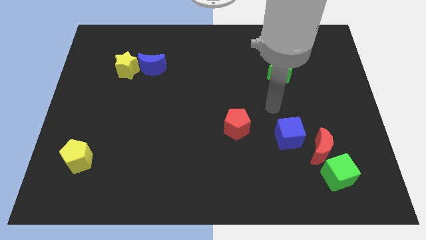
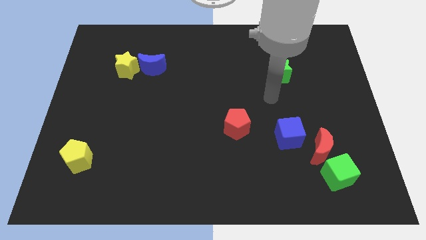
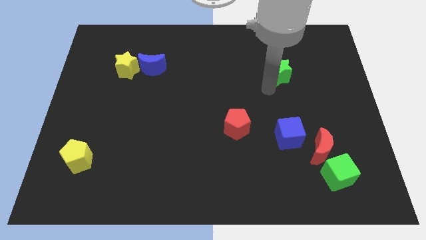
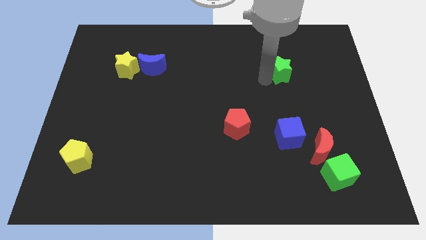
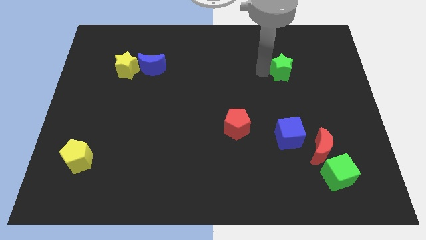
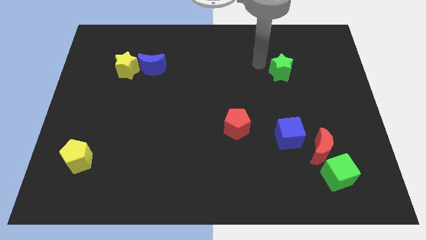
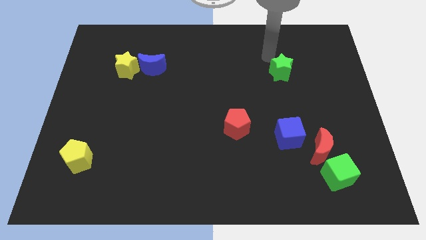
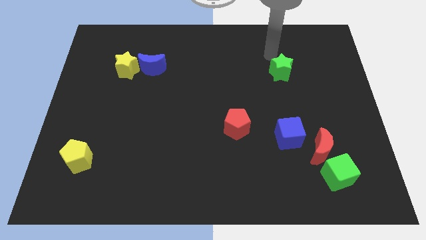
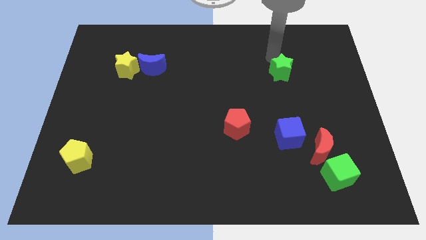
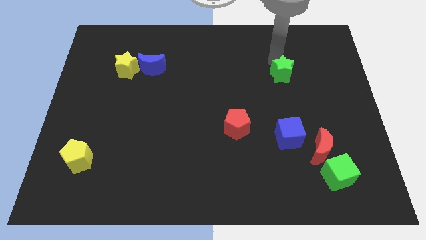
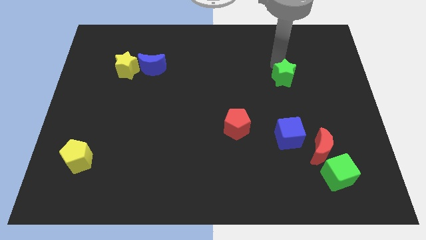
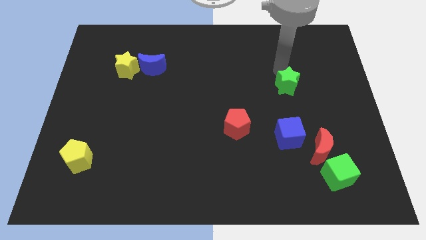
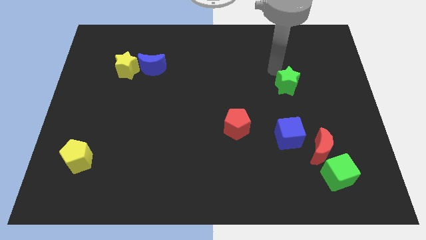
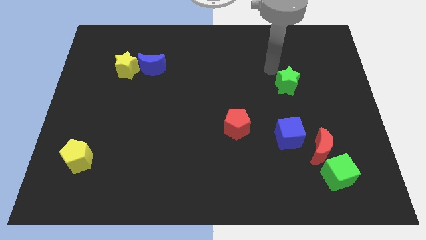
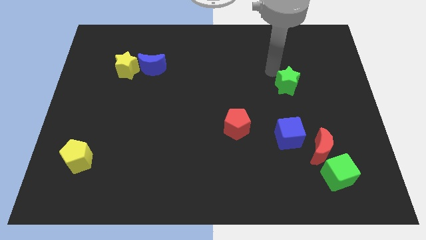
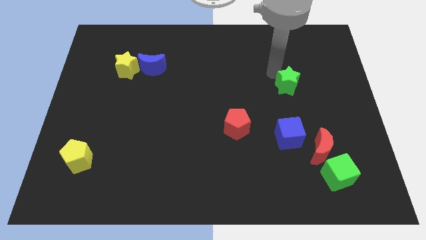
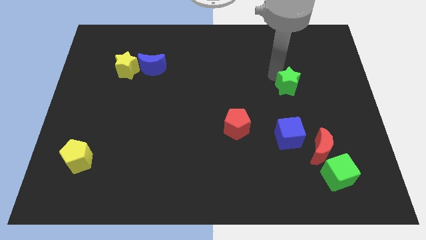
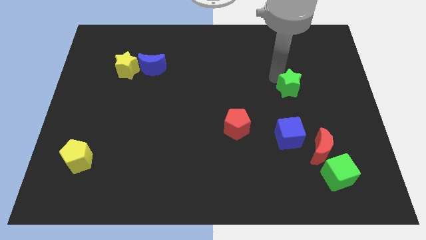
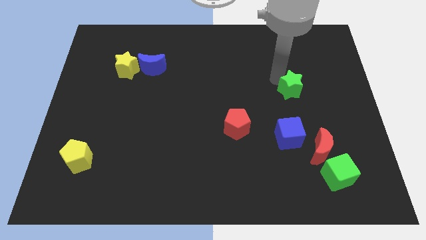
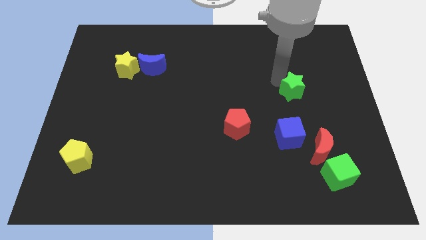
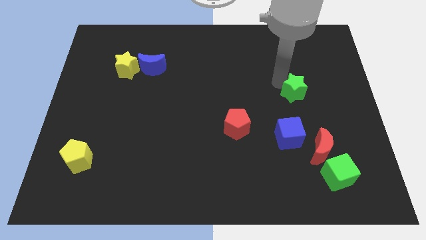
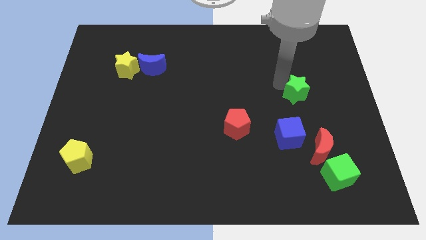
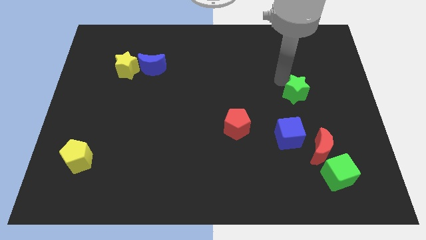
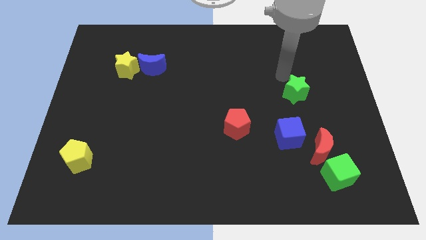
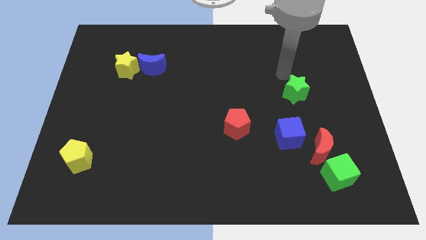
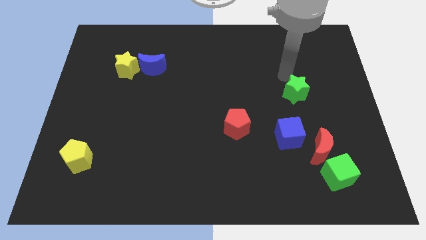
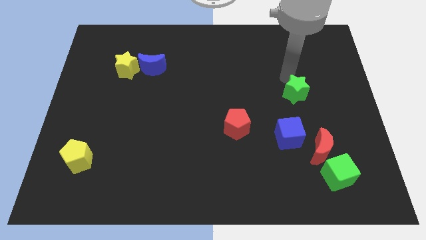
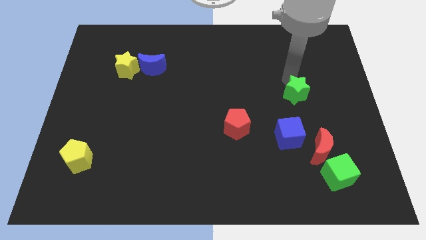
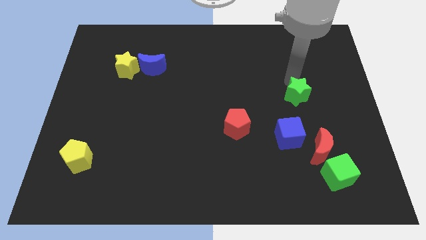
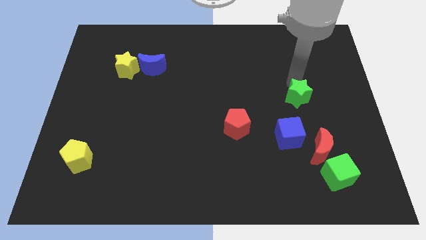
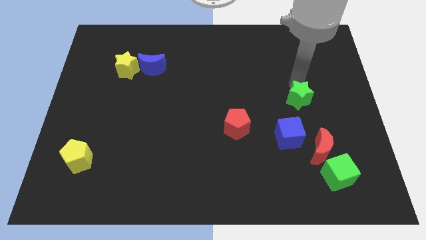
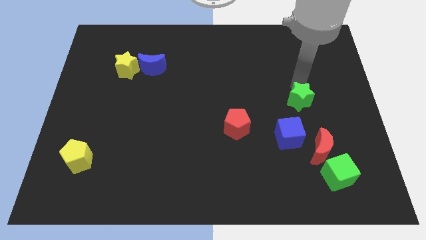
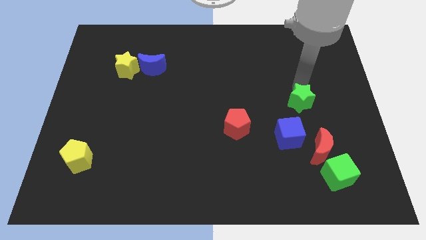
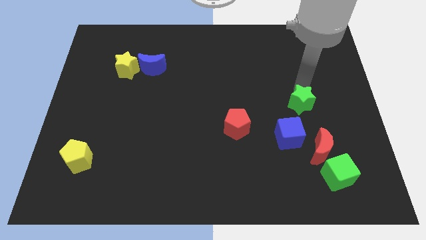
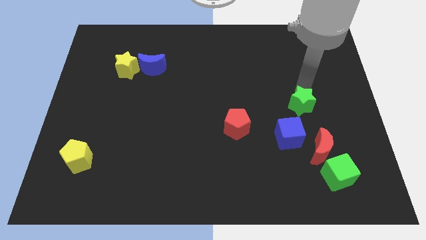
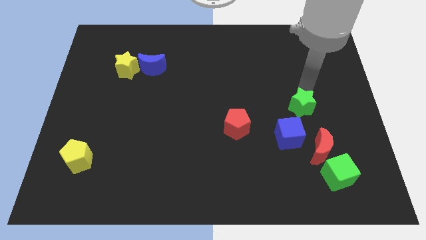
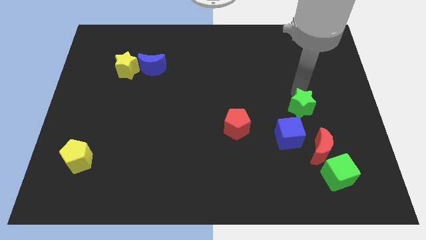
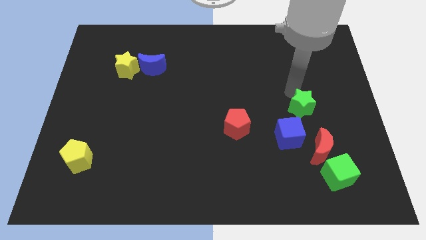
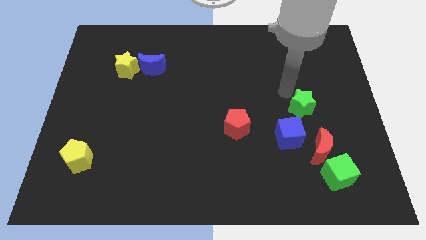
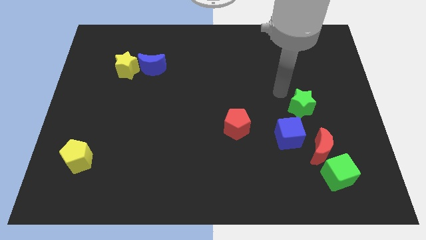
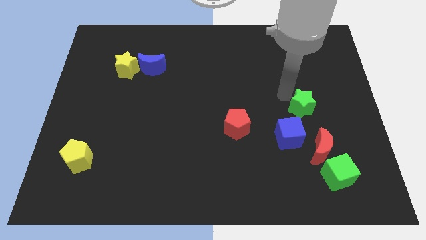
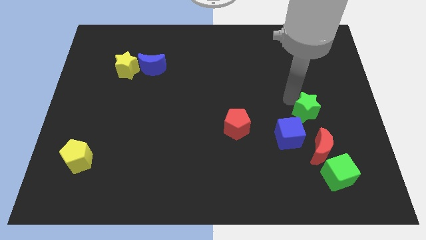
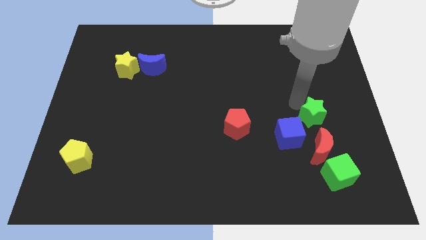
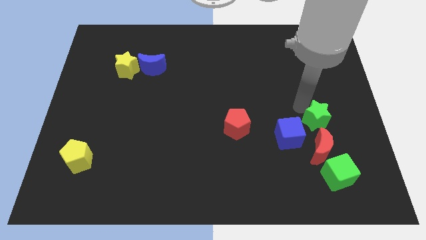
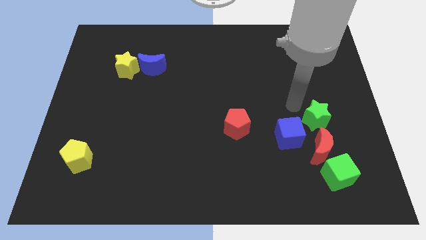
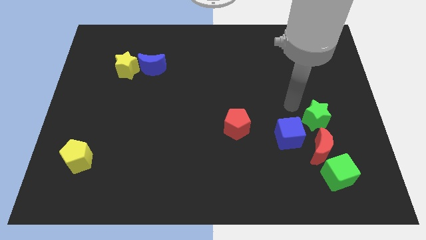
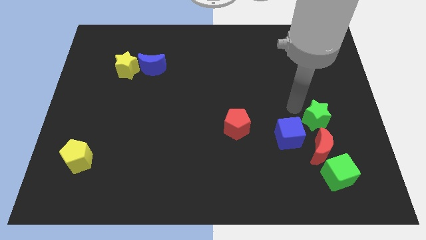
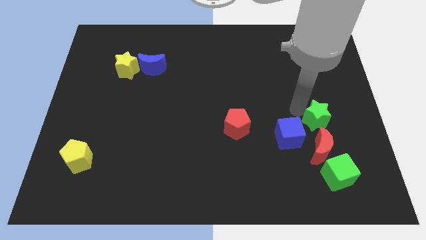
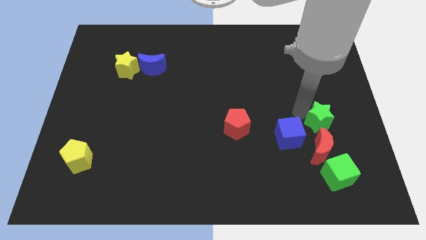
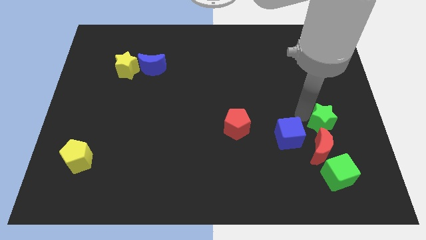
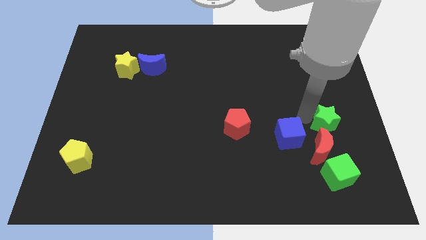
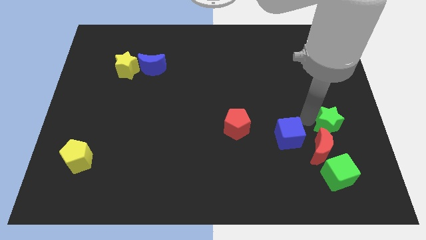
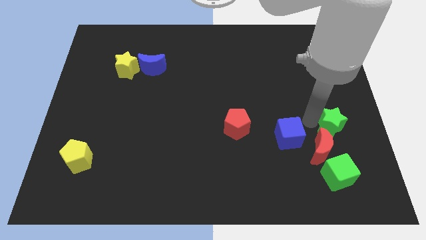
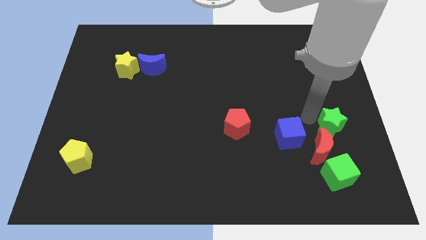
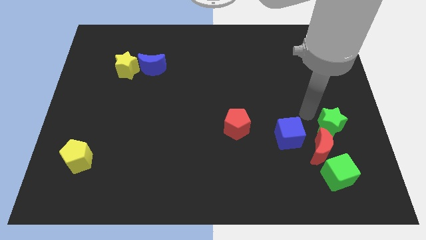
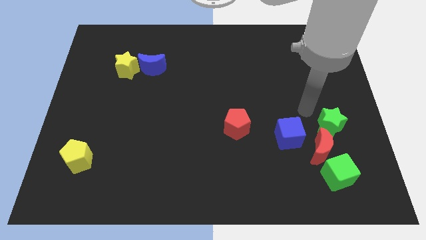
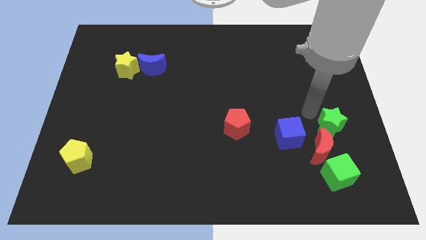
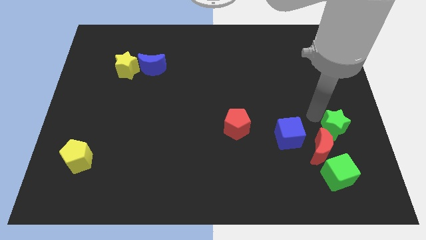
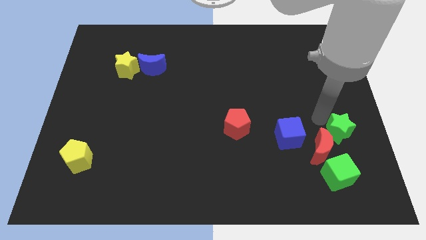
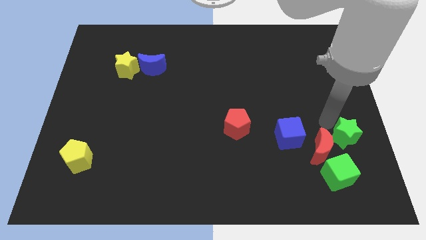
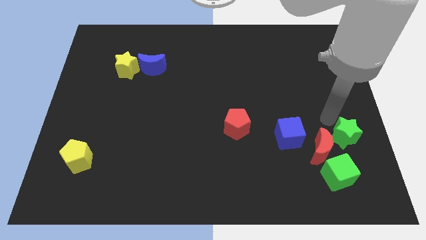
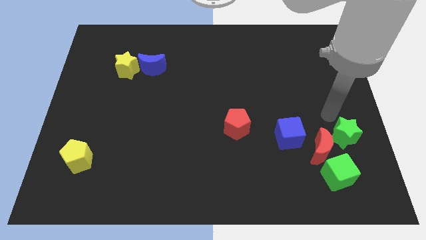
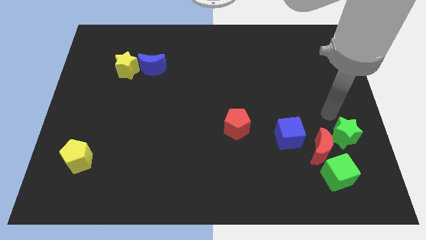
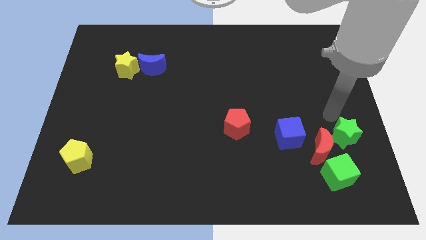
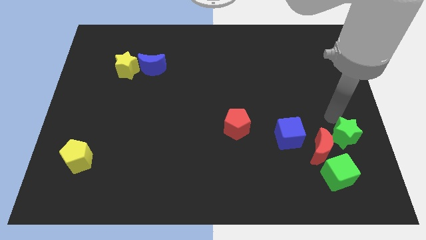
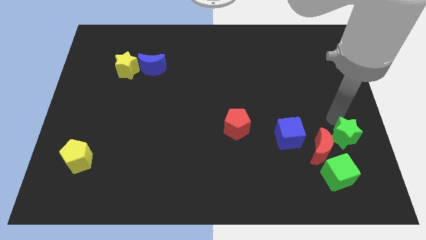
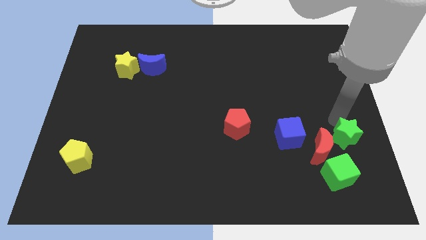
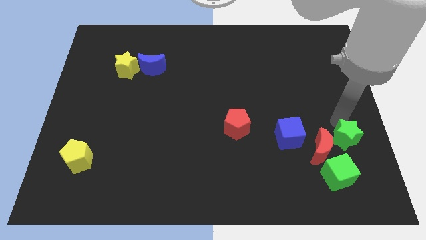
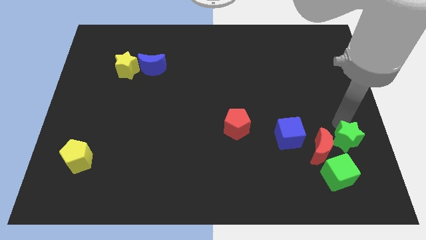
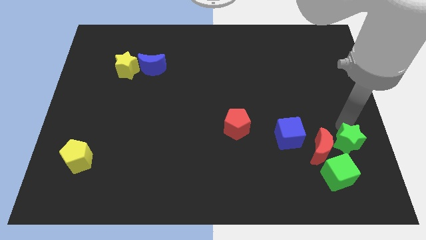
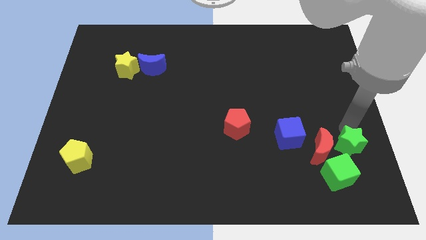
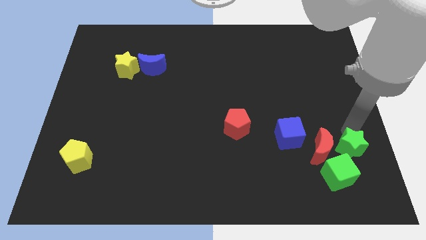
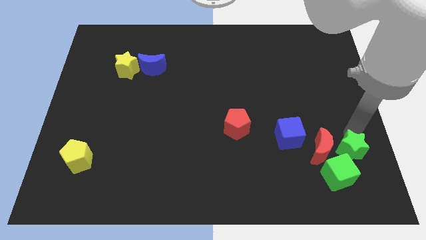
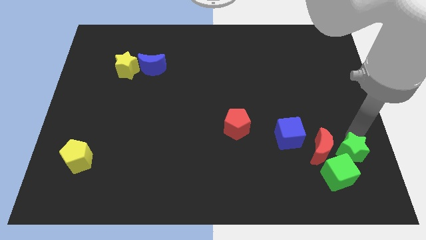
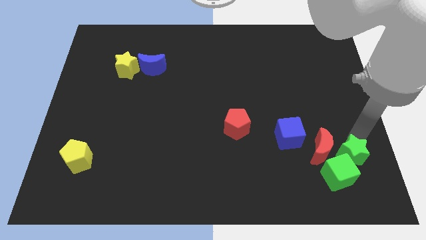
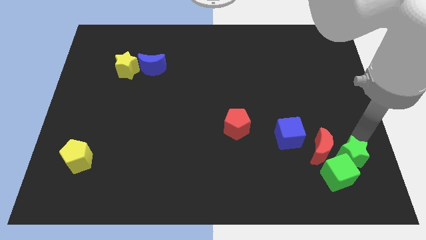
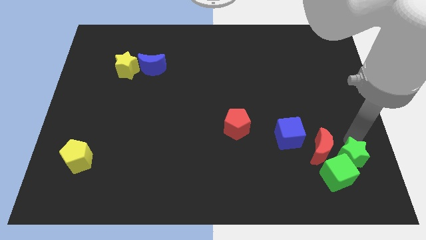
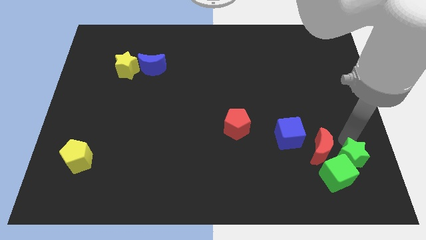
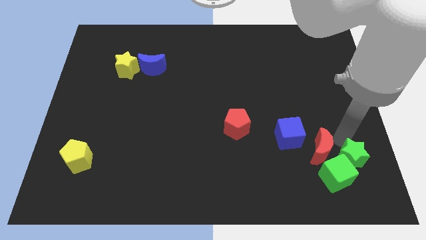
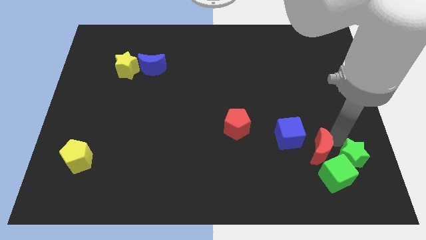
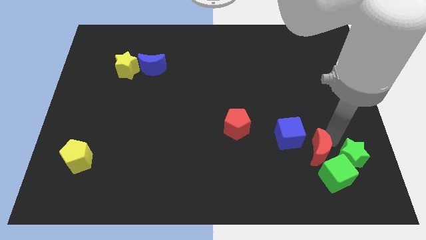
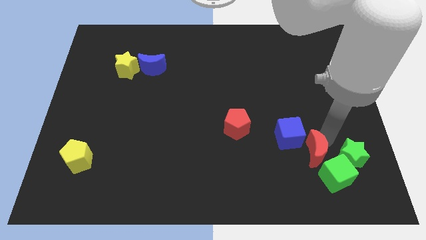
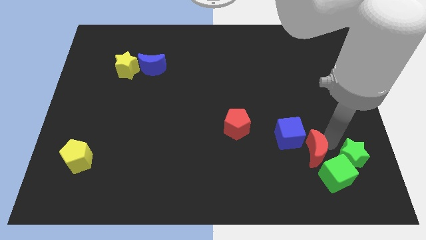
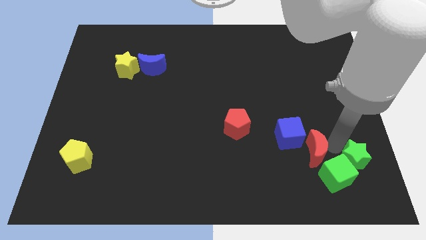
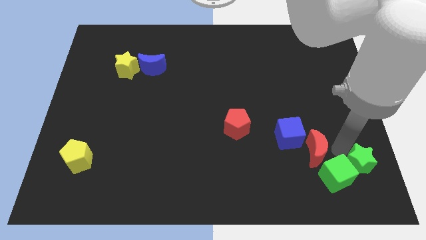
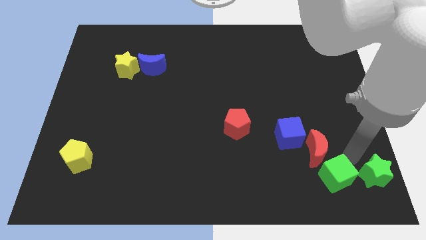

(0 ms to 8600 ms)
put the green star to the bottom right corner
